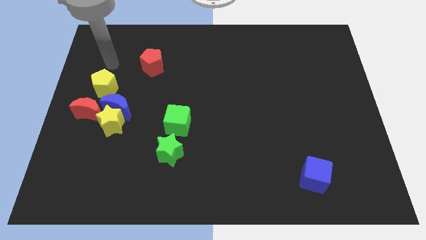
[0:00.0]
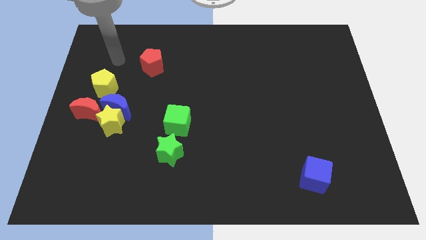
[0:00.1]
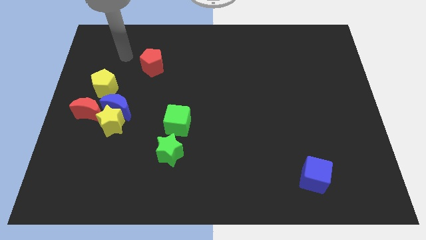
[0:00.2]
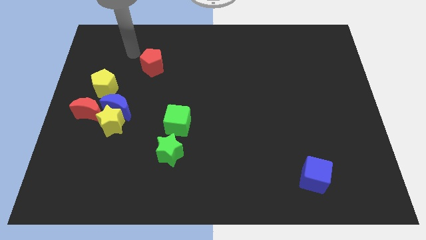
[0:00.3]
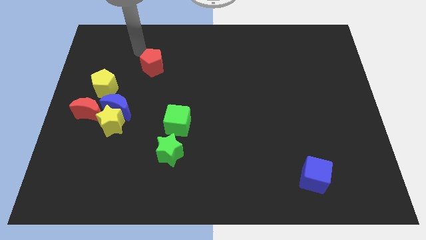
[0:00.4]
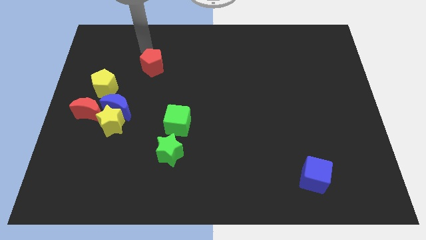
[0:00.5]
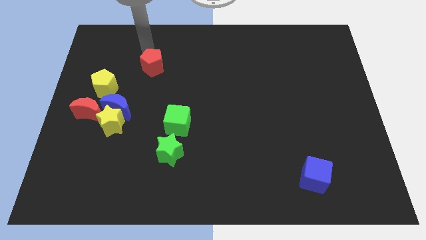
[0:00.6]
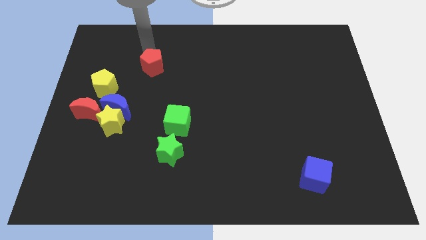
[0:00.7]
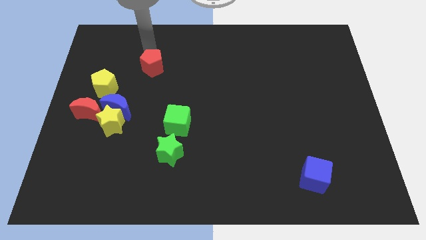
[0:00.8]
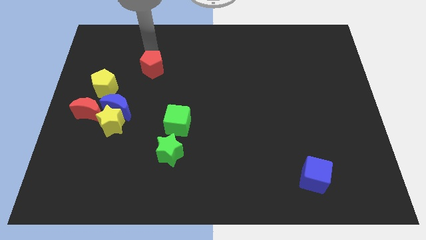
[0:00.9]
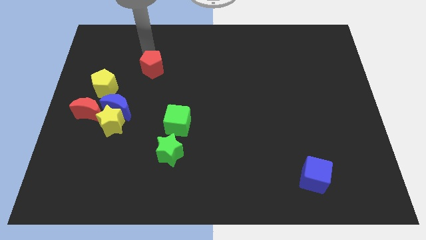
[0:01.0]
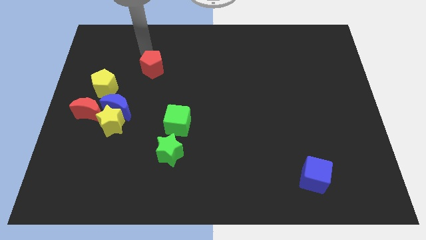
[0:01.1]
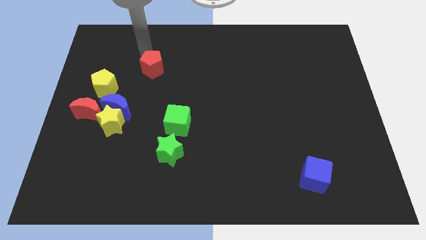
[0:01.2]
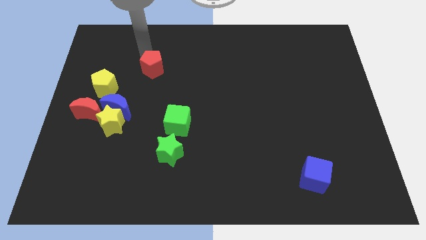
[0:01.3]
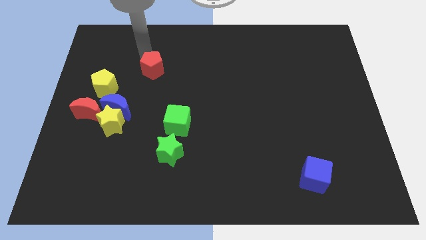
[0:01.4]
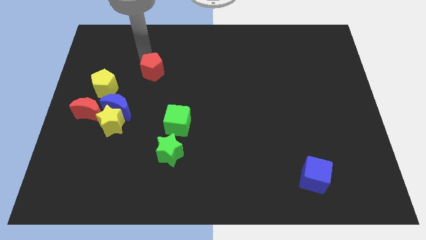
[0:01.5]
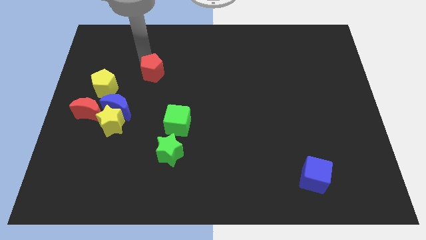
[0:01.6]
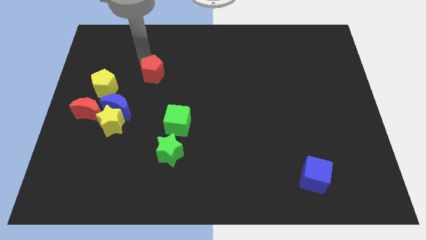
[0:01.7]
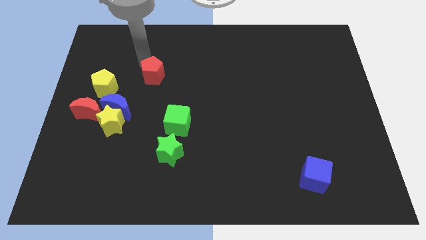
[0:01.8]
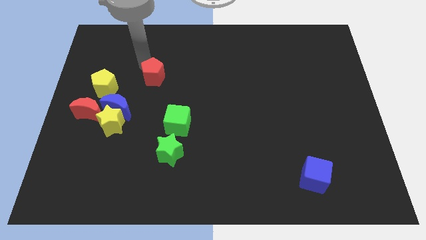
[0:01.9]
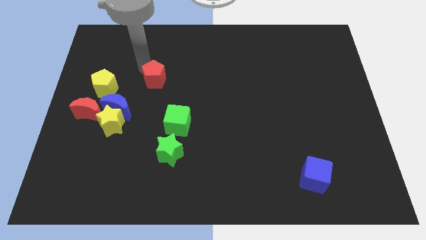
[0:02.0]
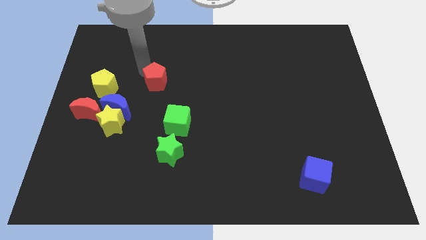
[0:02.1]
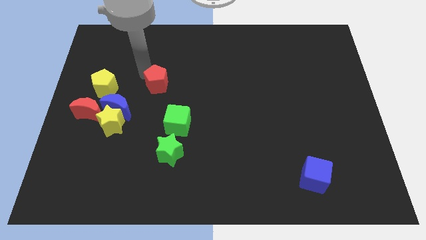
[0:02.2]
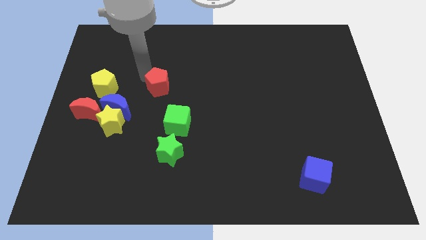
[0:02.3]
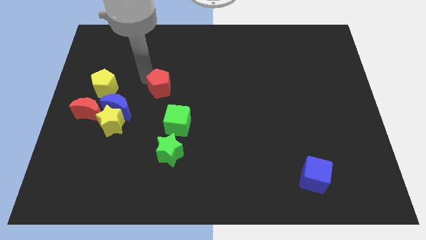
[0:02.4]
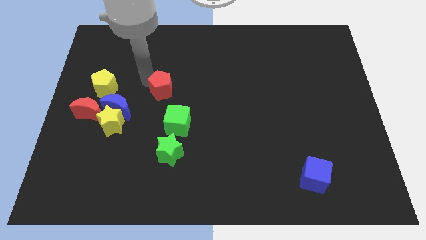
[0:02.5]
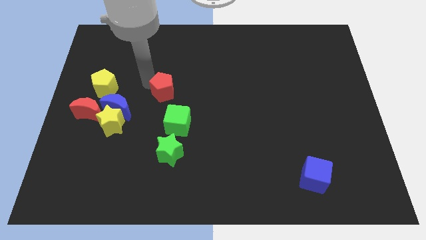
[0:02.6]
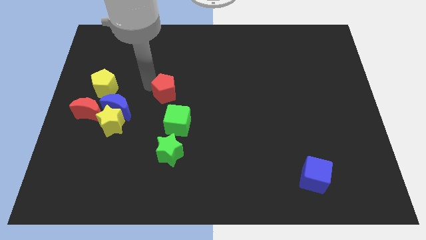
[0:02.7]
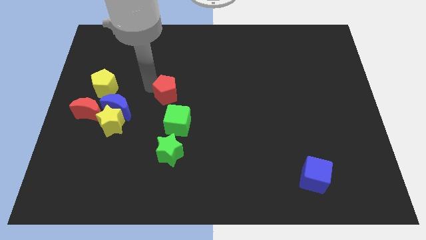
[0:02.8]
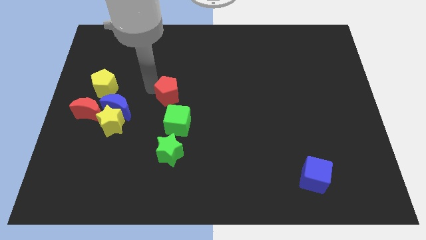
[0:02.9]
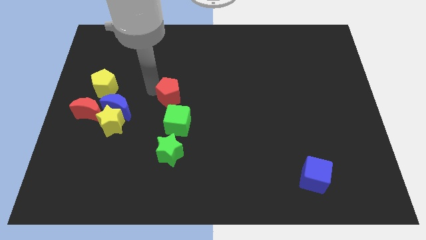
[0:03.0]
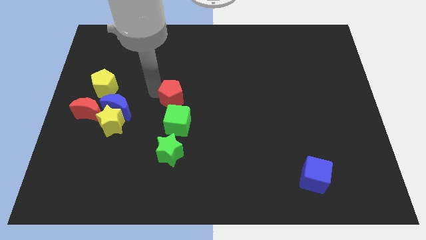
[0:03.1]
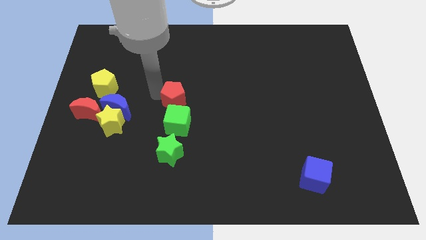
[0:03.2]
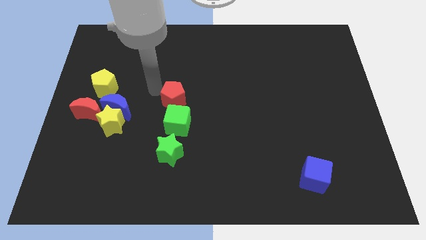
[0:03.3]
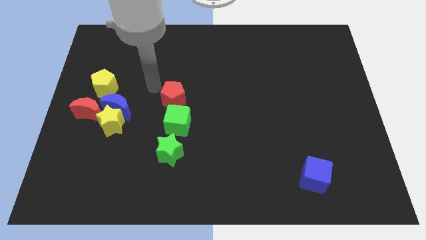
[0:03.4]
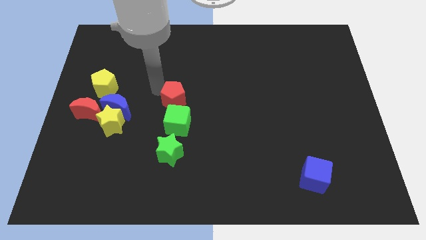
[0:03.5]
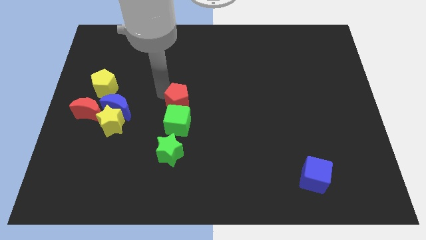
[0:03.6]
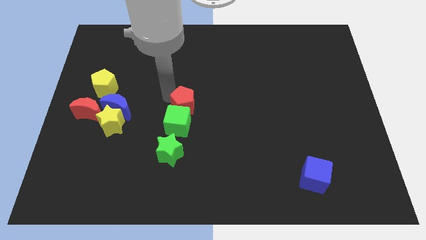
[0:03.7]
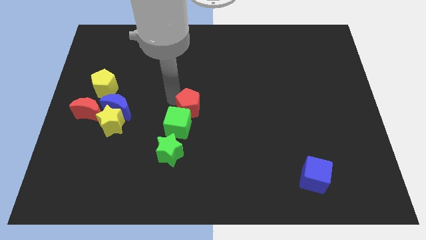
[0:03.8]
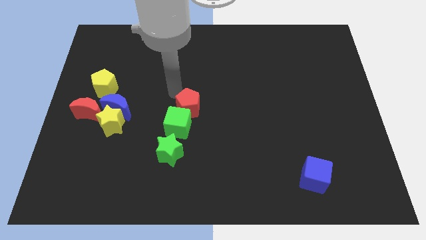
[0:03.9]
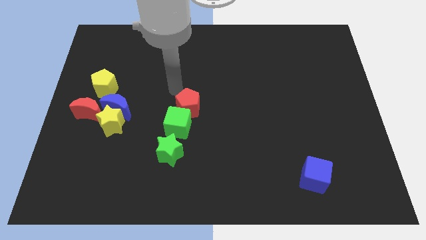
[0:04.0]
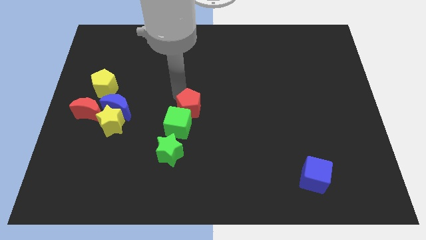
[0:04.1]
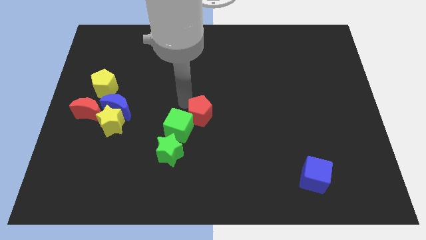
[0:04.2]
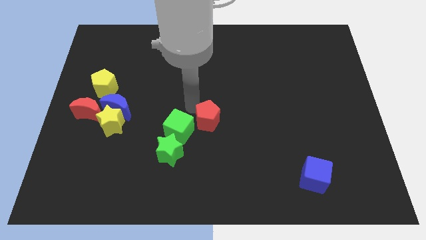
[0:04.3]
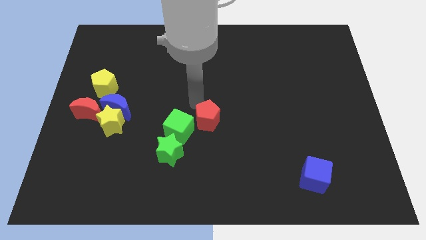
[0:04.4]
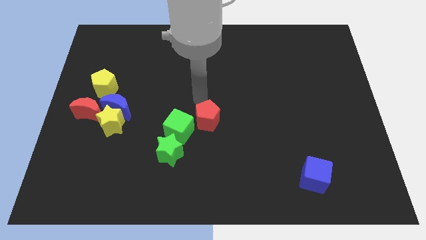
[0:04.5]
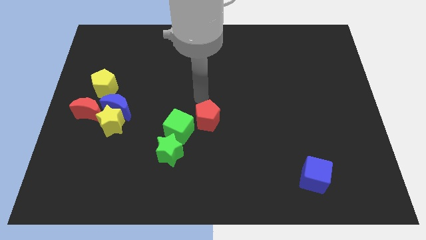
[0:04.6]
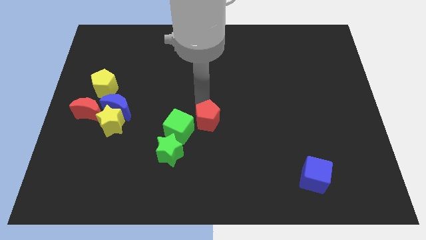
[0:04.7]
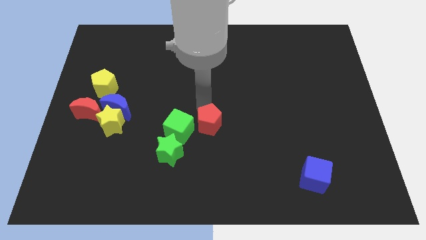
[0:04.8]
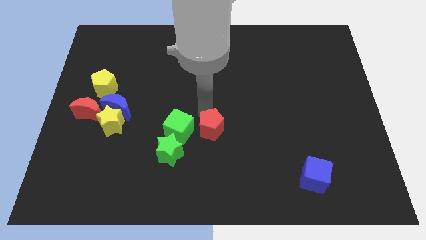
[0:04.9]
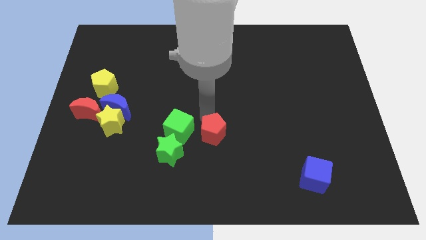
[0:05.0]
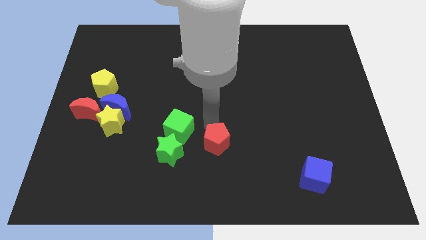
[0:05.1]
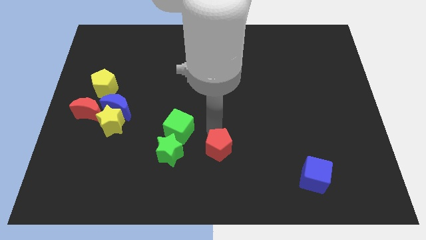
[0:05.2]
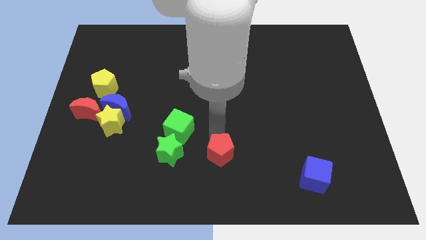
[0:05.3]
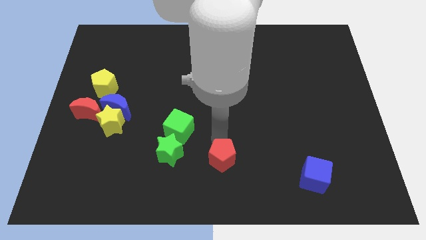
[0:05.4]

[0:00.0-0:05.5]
push the red pentagon to the bottom

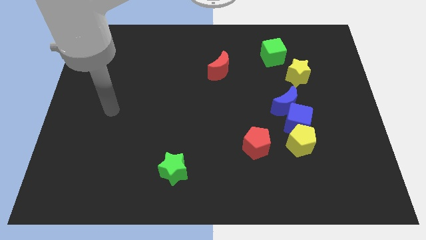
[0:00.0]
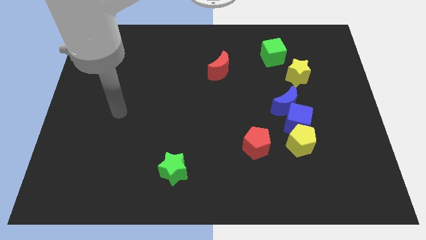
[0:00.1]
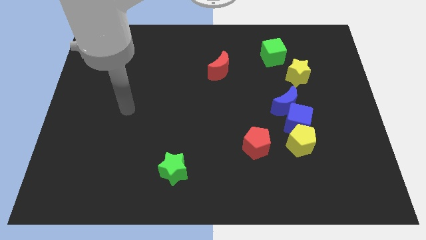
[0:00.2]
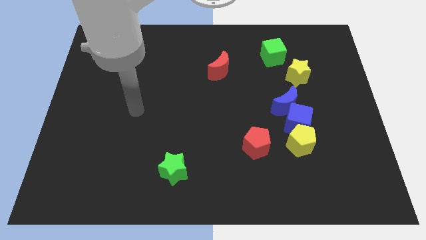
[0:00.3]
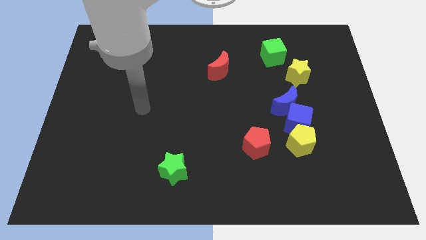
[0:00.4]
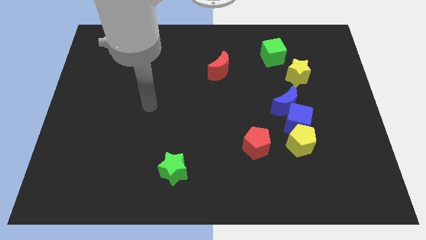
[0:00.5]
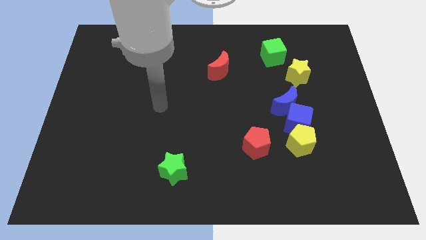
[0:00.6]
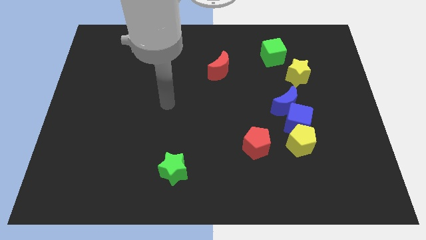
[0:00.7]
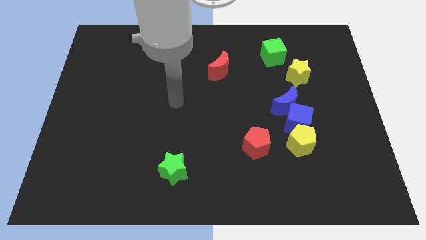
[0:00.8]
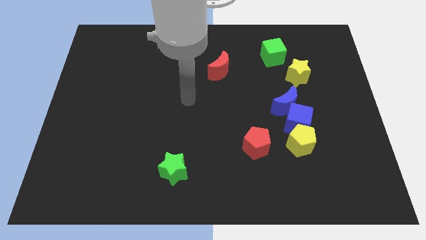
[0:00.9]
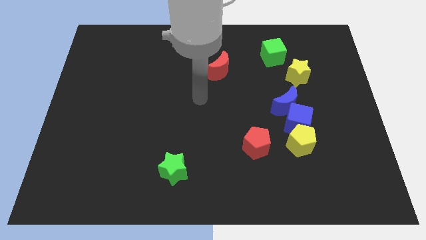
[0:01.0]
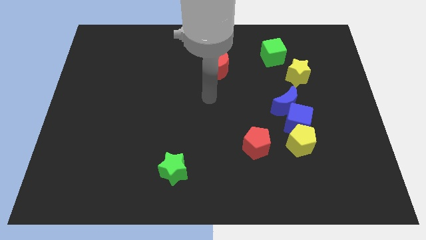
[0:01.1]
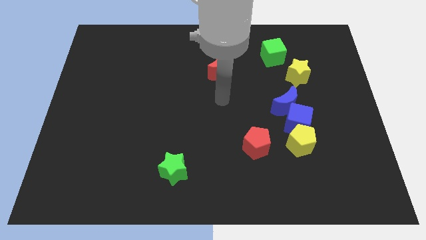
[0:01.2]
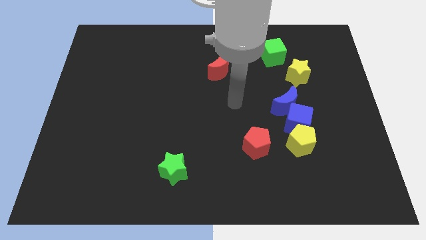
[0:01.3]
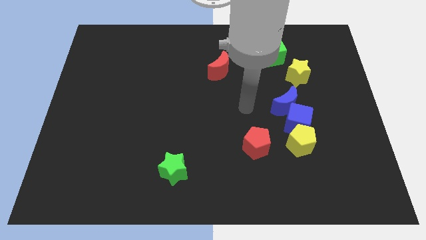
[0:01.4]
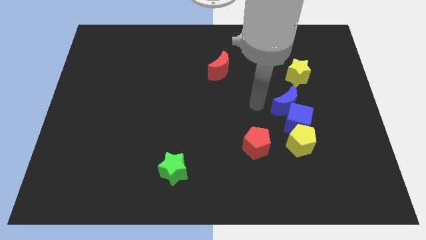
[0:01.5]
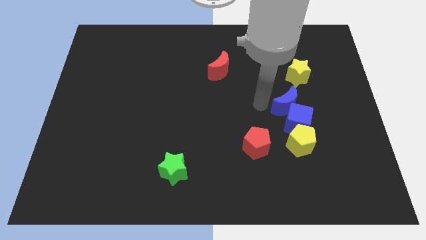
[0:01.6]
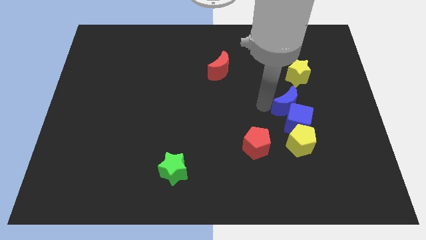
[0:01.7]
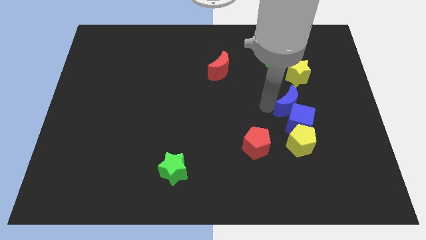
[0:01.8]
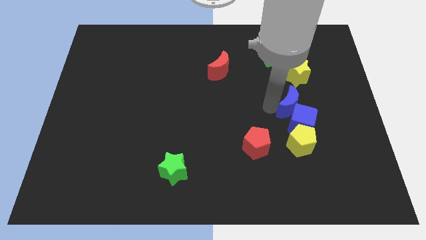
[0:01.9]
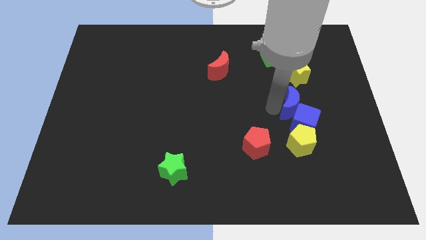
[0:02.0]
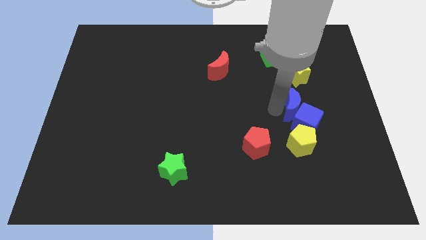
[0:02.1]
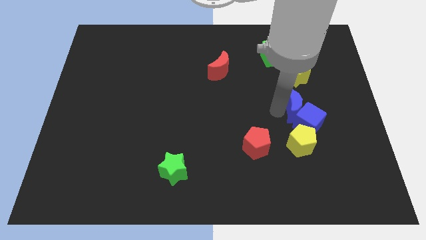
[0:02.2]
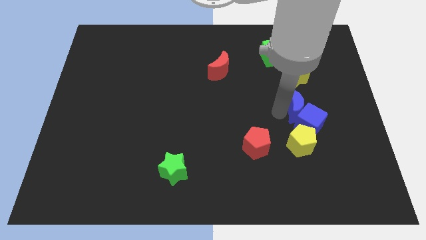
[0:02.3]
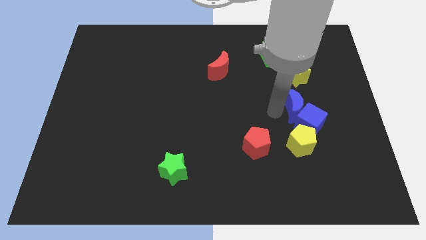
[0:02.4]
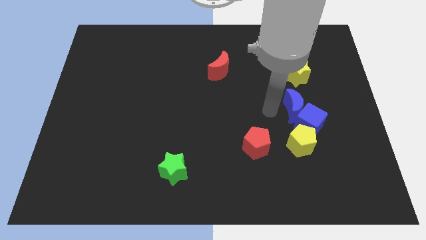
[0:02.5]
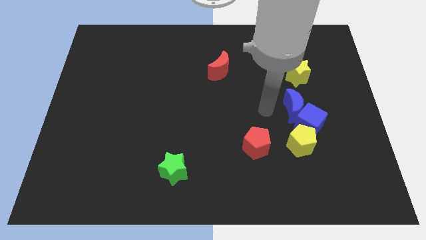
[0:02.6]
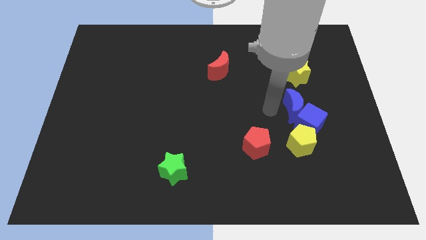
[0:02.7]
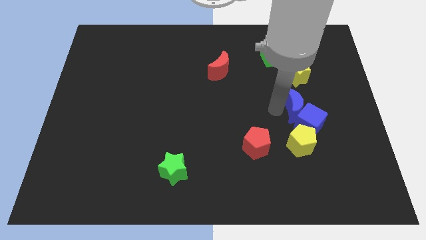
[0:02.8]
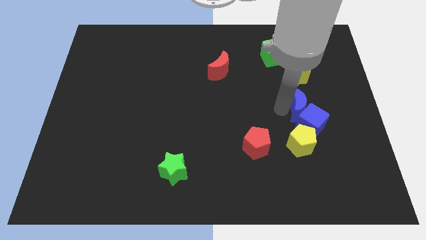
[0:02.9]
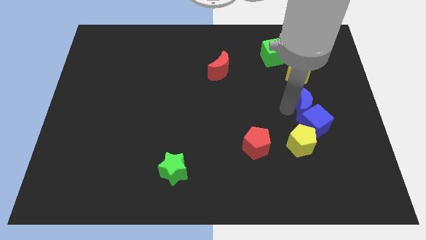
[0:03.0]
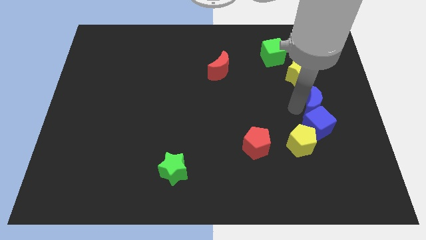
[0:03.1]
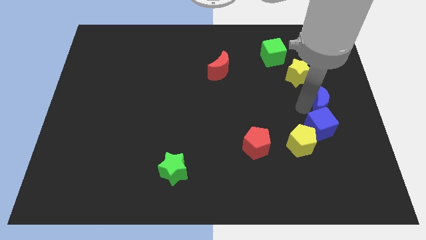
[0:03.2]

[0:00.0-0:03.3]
put the blue moon to the center right
